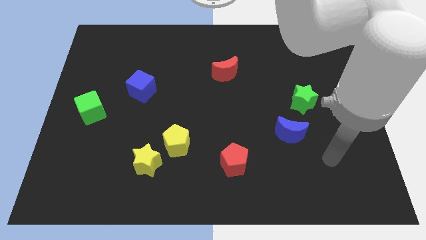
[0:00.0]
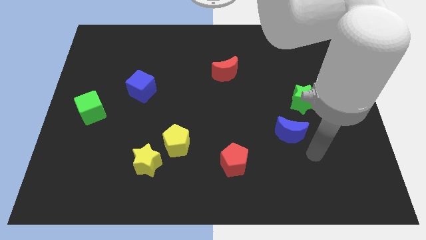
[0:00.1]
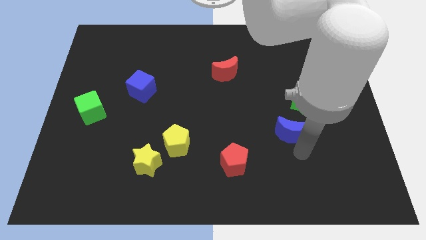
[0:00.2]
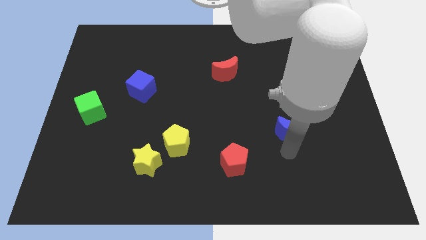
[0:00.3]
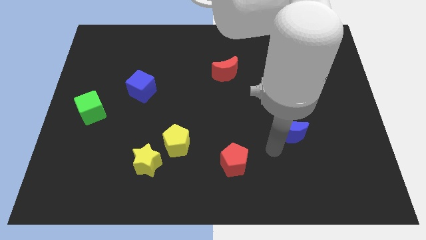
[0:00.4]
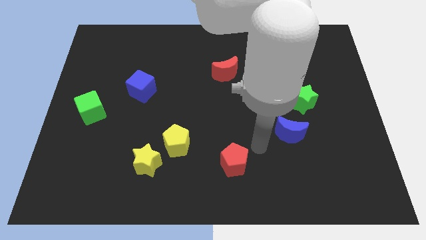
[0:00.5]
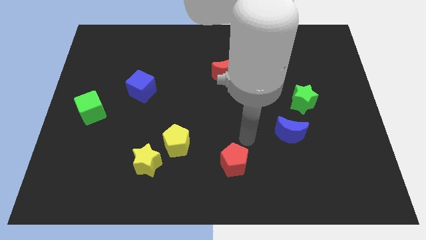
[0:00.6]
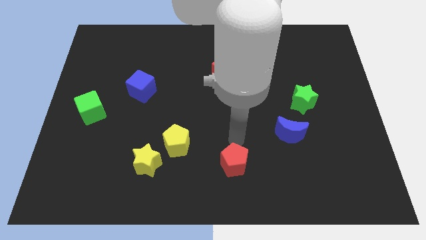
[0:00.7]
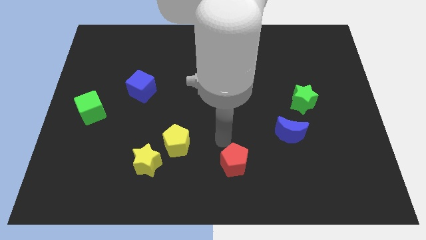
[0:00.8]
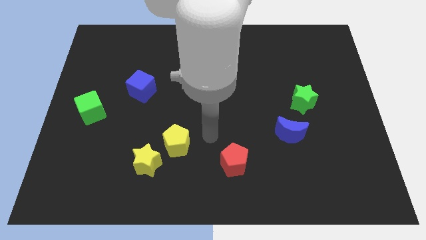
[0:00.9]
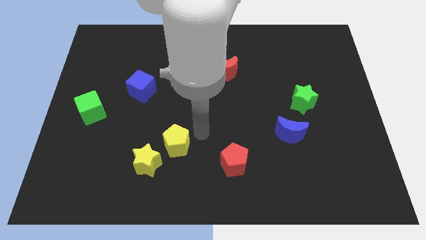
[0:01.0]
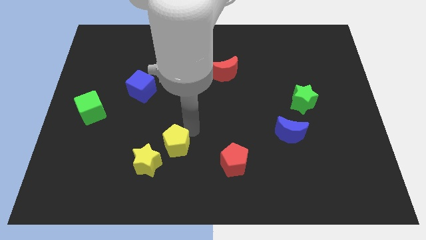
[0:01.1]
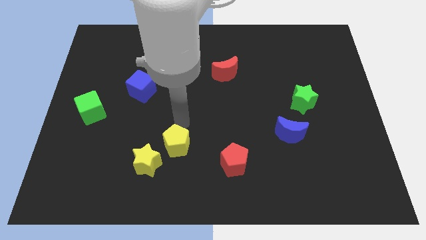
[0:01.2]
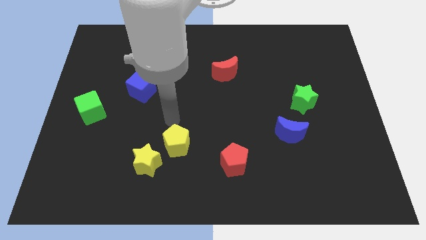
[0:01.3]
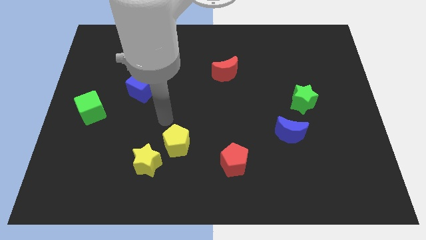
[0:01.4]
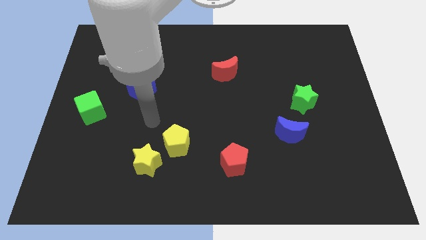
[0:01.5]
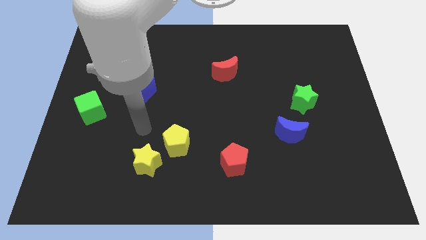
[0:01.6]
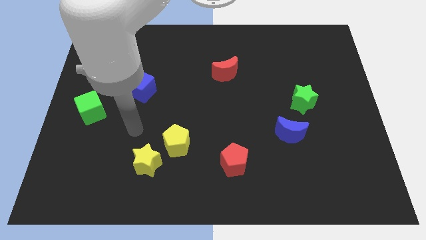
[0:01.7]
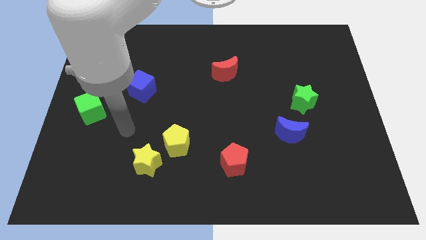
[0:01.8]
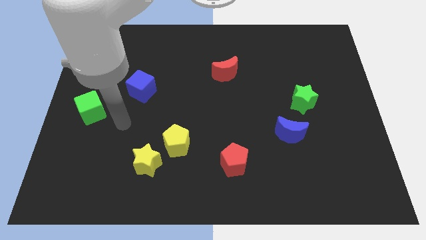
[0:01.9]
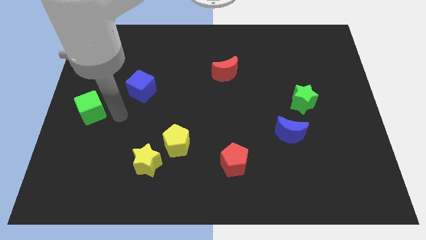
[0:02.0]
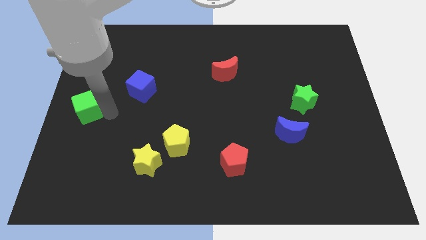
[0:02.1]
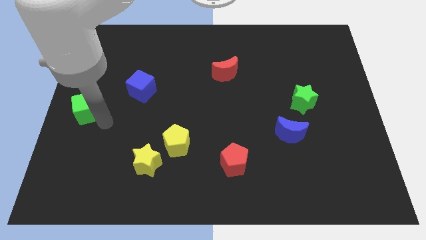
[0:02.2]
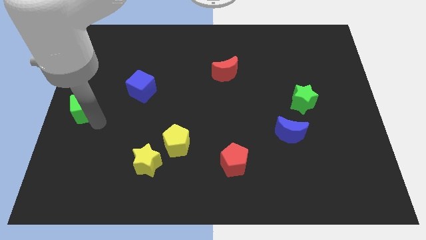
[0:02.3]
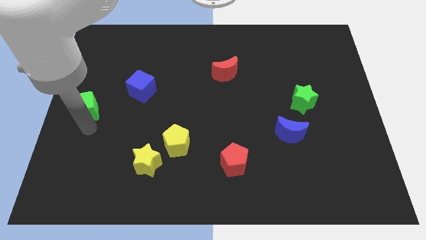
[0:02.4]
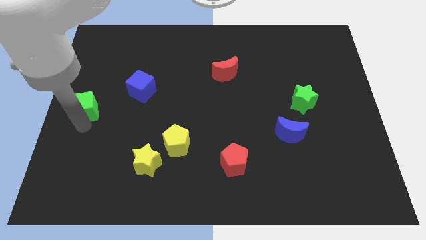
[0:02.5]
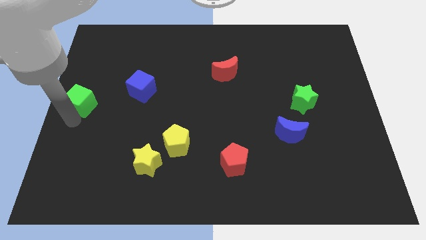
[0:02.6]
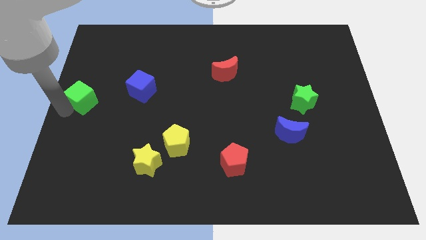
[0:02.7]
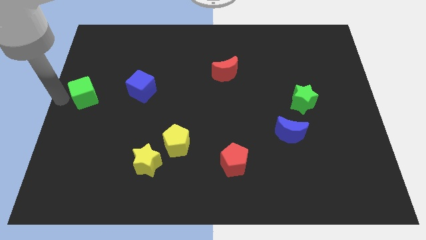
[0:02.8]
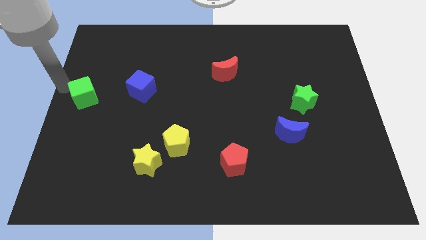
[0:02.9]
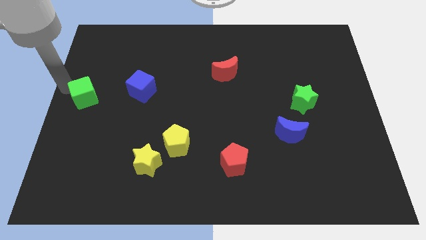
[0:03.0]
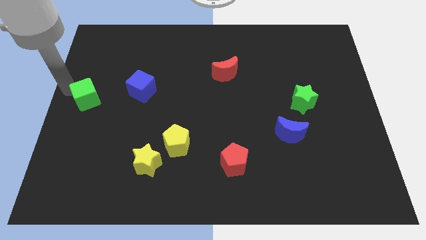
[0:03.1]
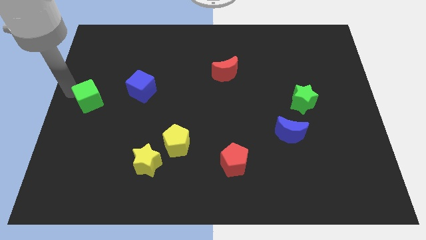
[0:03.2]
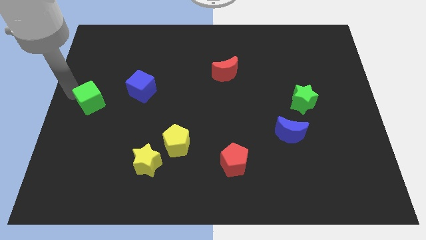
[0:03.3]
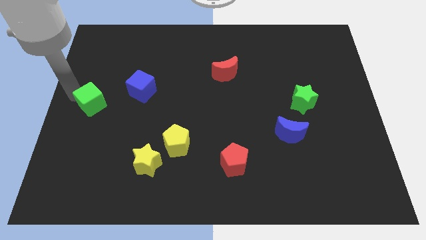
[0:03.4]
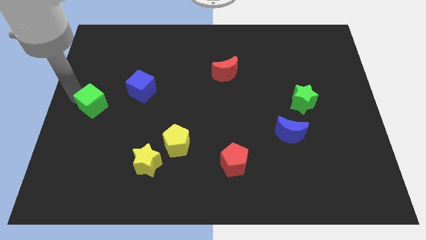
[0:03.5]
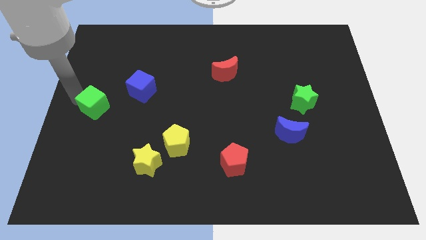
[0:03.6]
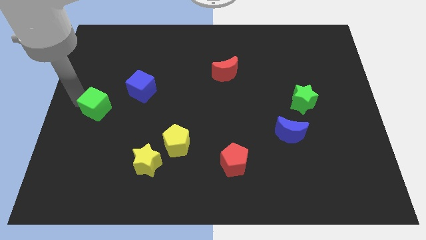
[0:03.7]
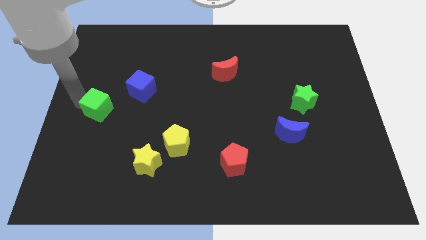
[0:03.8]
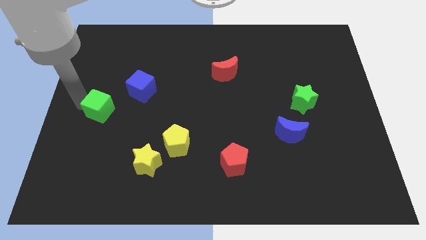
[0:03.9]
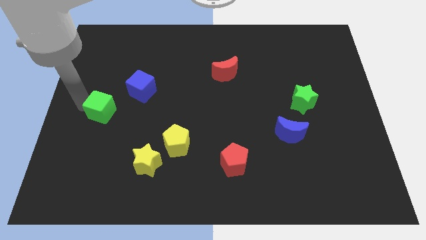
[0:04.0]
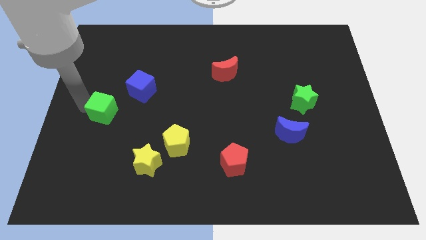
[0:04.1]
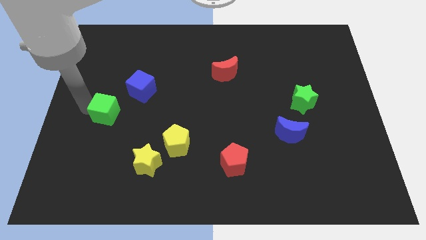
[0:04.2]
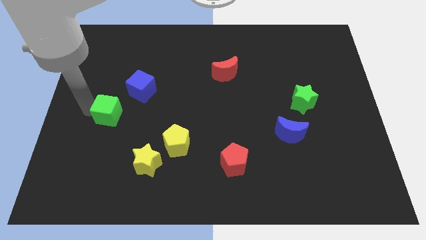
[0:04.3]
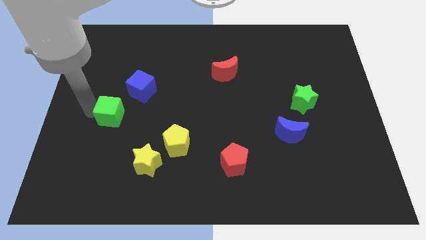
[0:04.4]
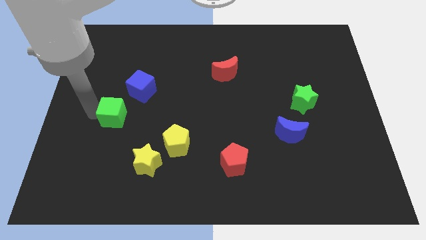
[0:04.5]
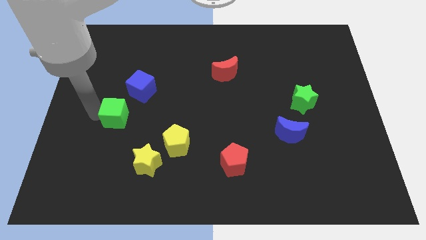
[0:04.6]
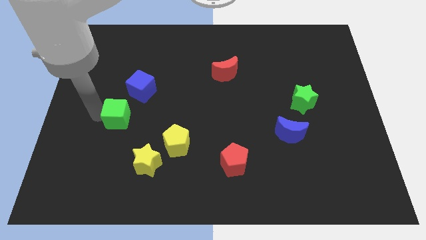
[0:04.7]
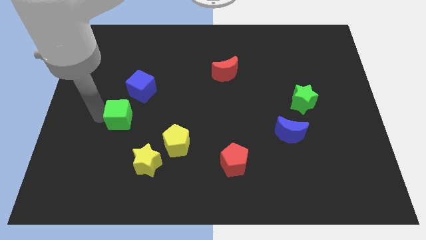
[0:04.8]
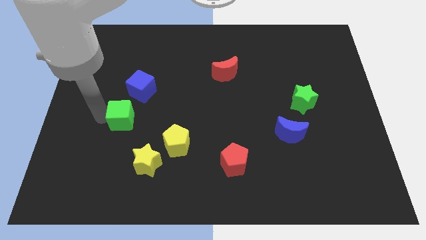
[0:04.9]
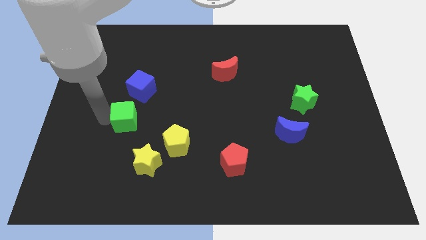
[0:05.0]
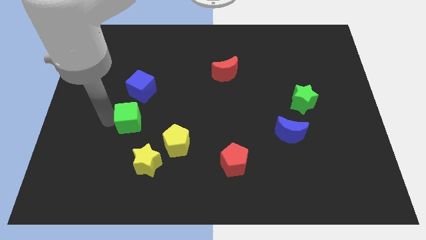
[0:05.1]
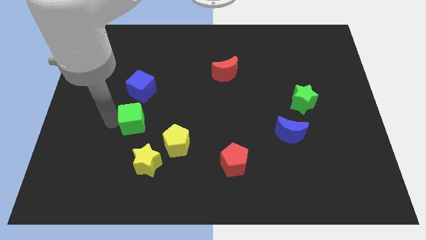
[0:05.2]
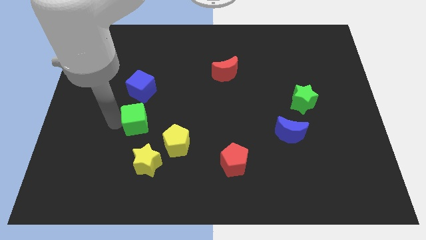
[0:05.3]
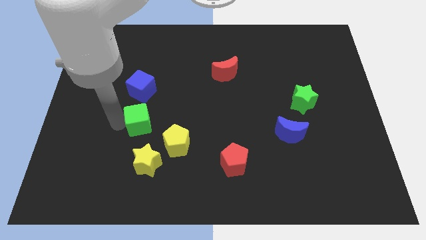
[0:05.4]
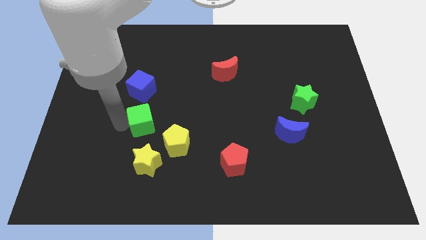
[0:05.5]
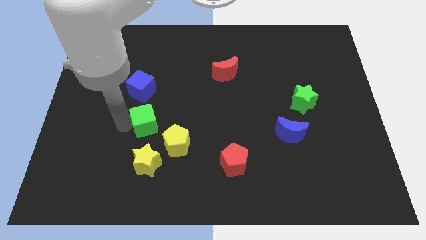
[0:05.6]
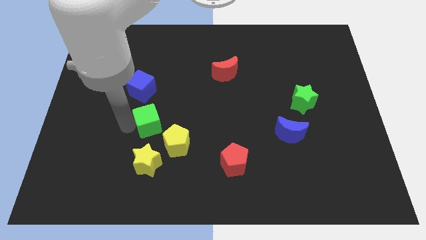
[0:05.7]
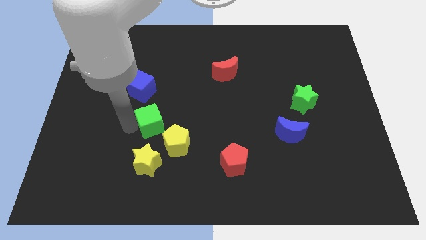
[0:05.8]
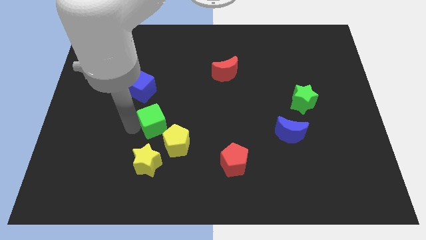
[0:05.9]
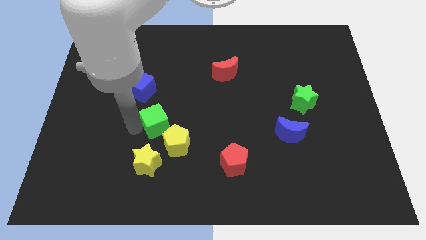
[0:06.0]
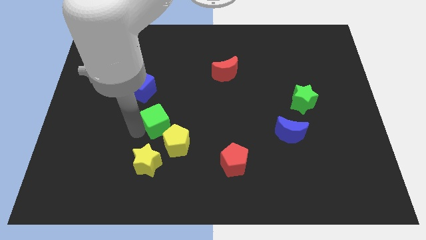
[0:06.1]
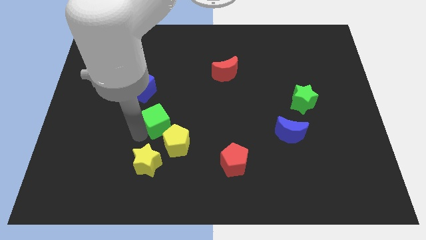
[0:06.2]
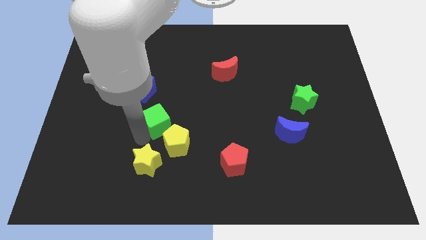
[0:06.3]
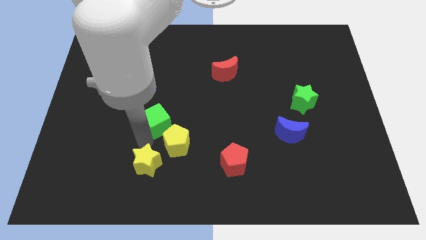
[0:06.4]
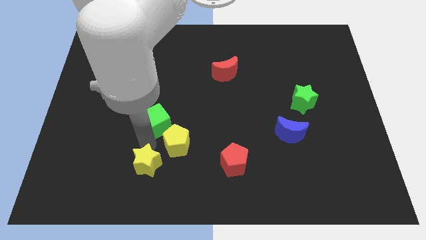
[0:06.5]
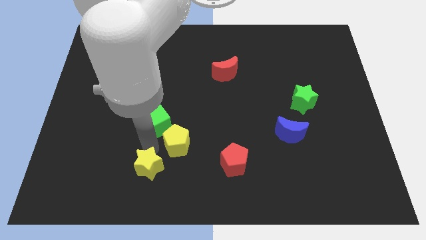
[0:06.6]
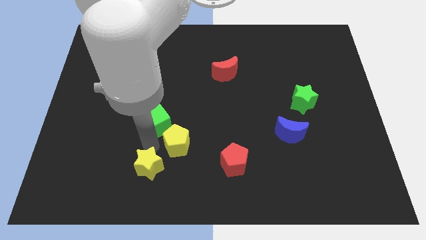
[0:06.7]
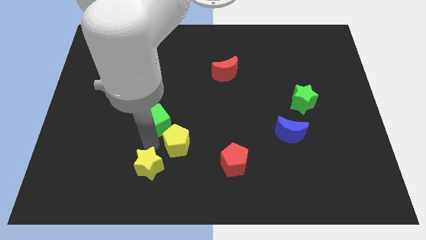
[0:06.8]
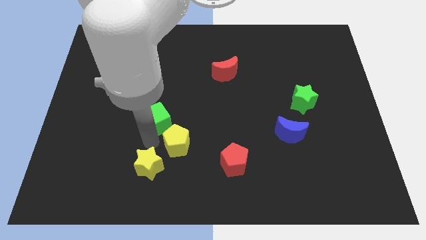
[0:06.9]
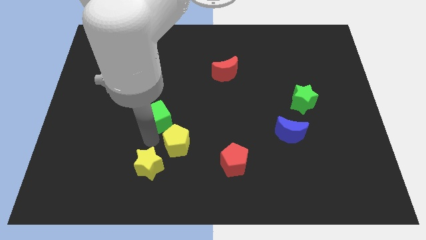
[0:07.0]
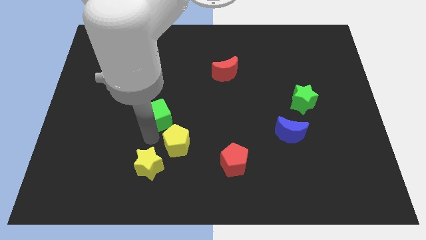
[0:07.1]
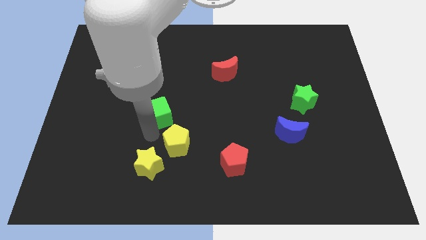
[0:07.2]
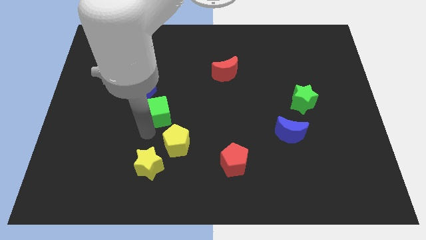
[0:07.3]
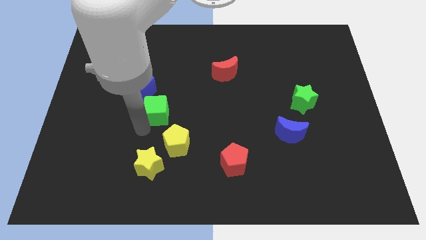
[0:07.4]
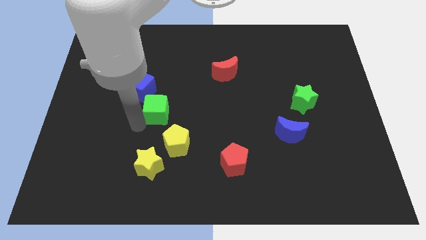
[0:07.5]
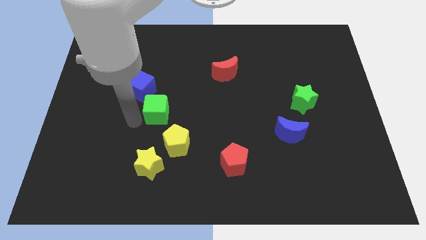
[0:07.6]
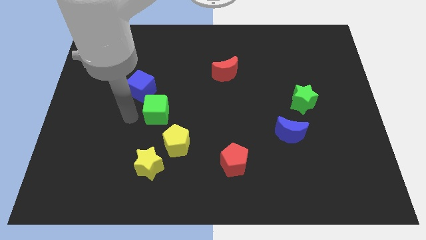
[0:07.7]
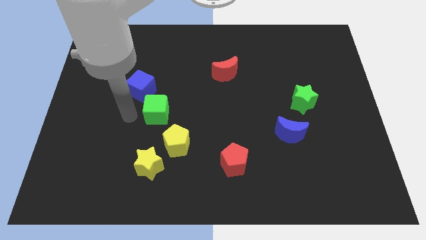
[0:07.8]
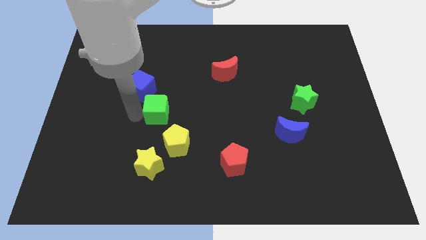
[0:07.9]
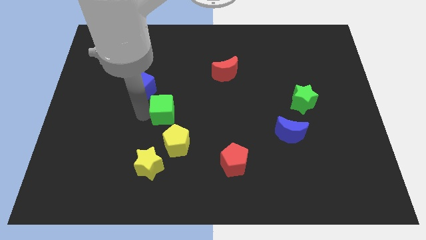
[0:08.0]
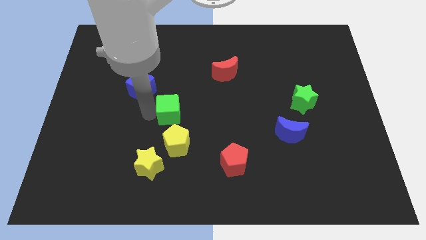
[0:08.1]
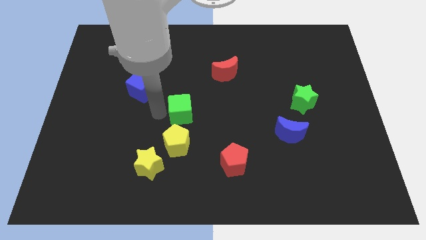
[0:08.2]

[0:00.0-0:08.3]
push the green cube to the right
